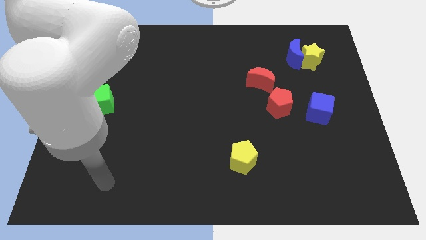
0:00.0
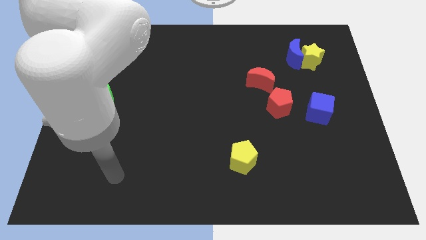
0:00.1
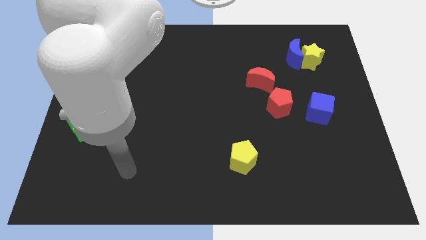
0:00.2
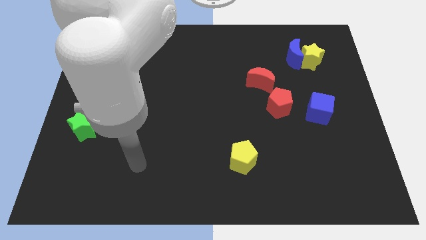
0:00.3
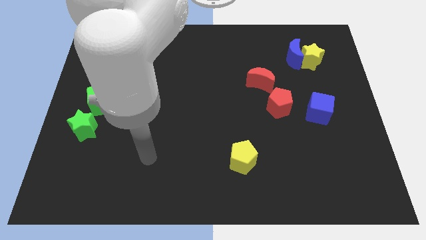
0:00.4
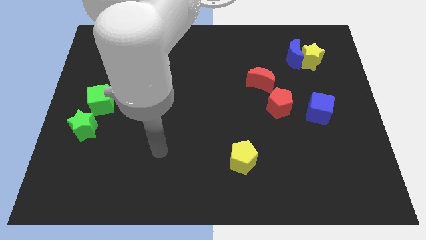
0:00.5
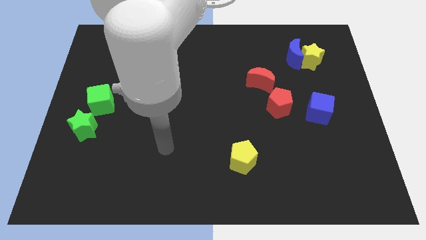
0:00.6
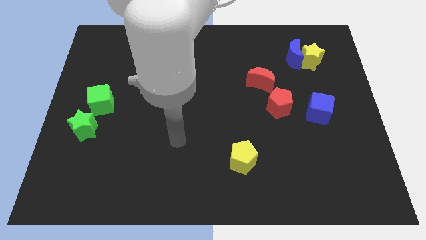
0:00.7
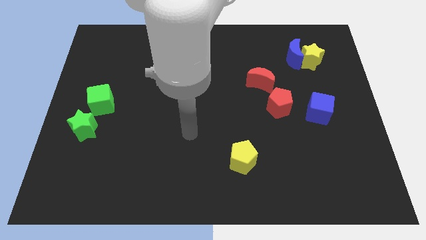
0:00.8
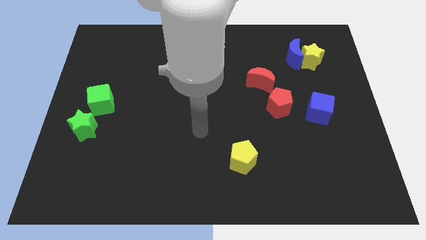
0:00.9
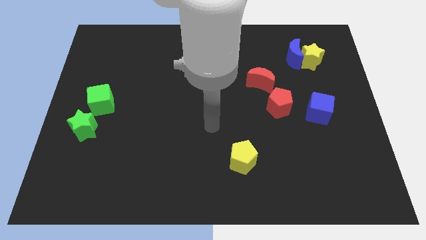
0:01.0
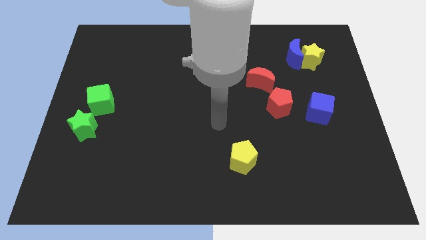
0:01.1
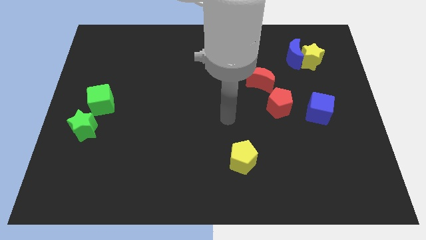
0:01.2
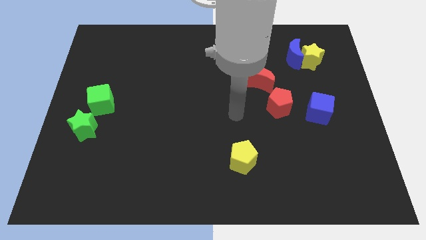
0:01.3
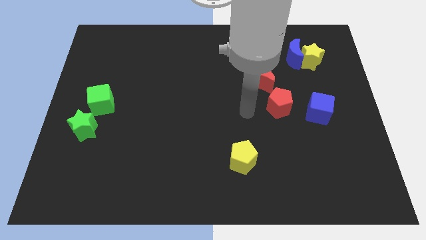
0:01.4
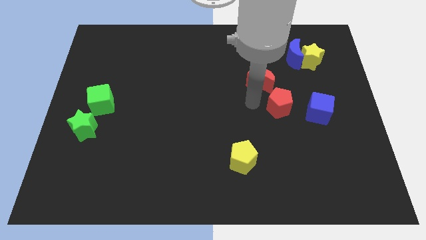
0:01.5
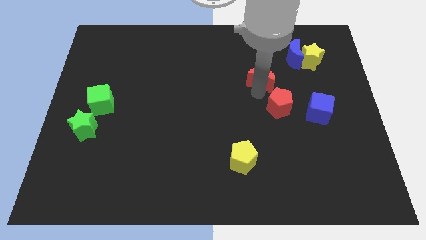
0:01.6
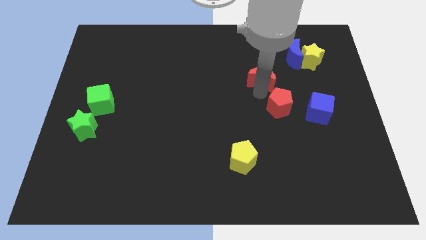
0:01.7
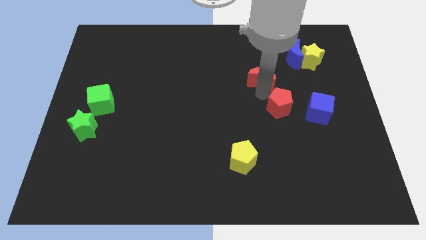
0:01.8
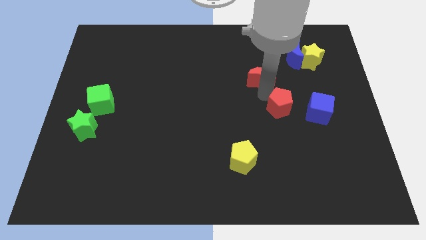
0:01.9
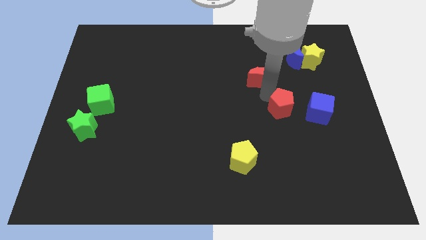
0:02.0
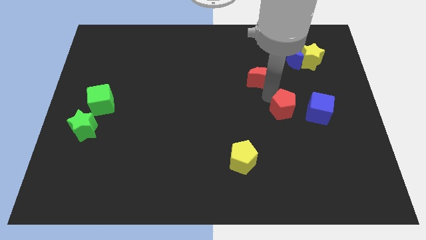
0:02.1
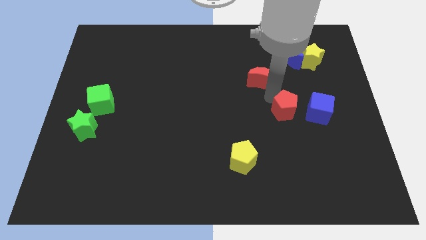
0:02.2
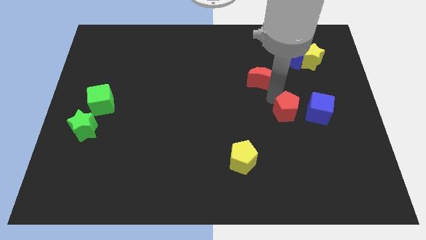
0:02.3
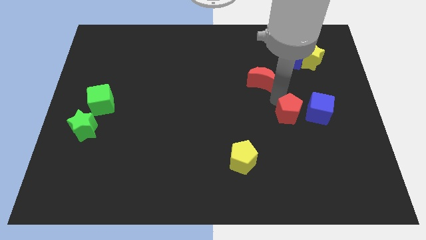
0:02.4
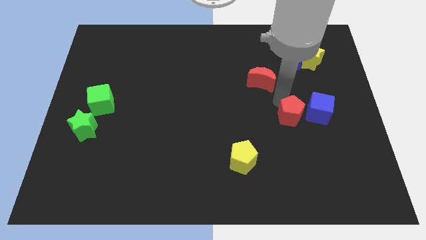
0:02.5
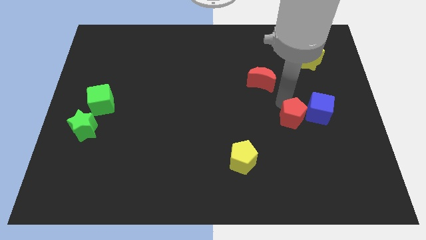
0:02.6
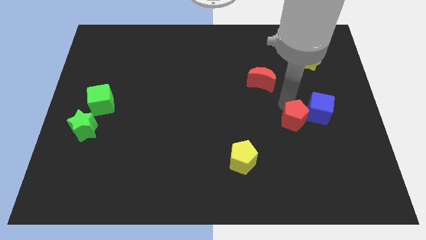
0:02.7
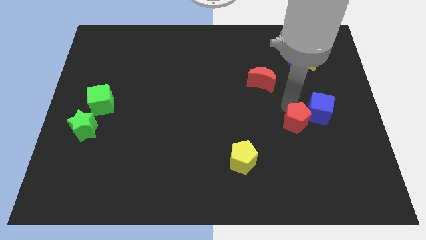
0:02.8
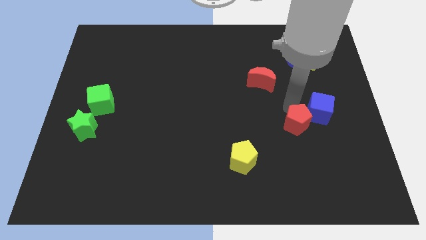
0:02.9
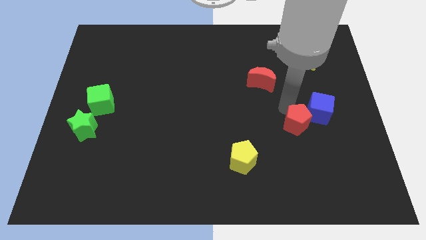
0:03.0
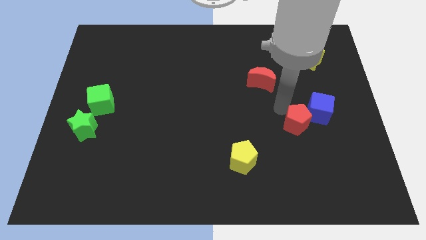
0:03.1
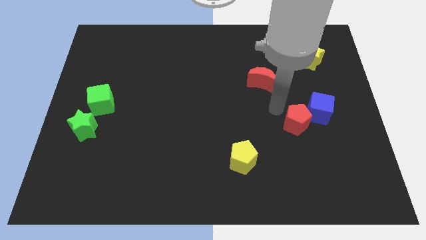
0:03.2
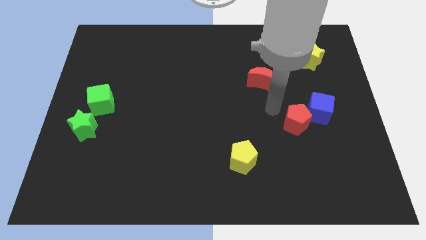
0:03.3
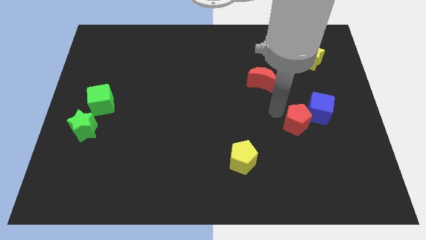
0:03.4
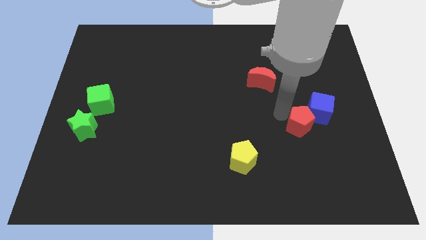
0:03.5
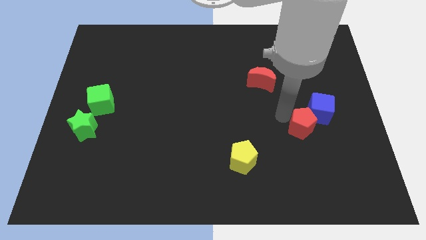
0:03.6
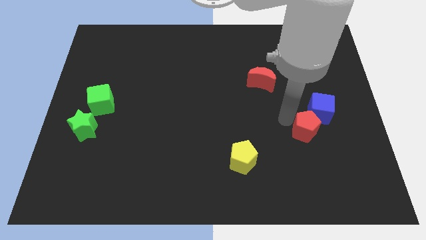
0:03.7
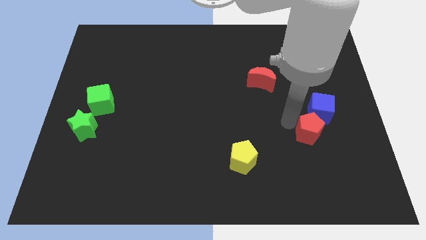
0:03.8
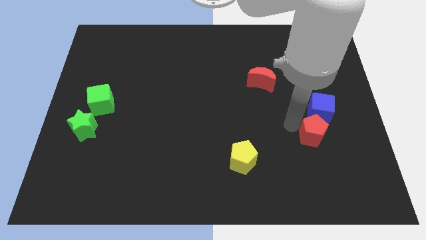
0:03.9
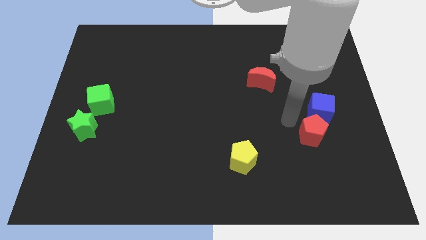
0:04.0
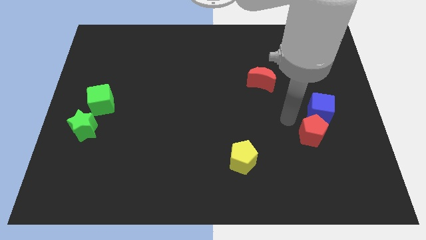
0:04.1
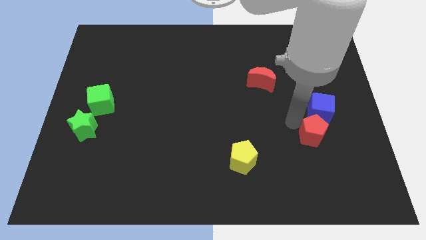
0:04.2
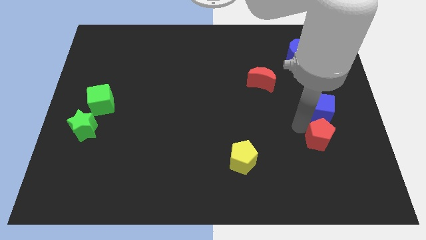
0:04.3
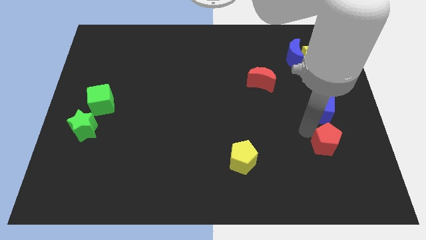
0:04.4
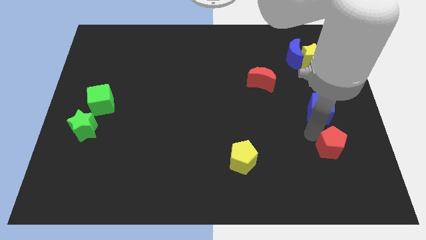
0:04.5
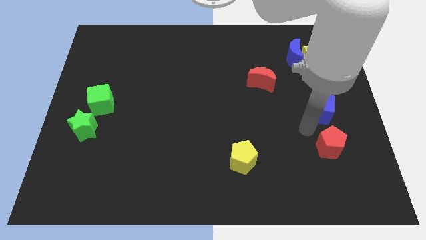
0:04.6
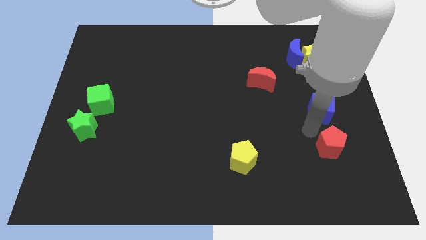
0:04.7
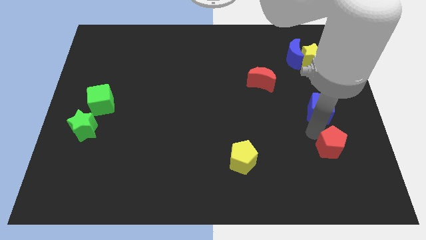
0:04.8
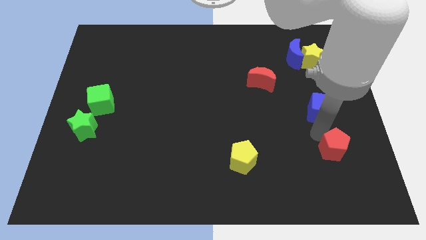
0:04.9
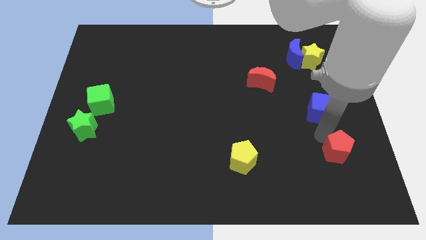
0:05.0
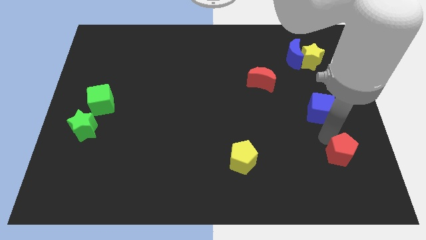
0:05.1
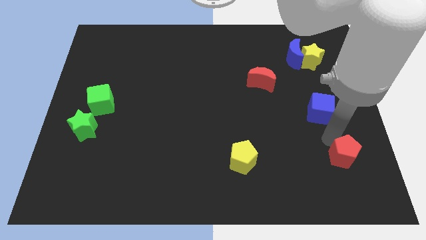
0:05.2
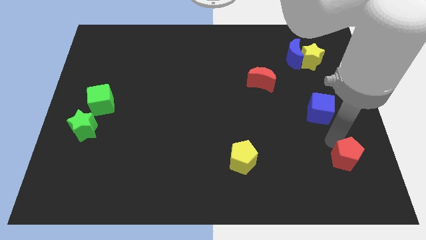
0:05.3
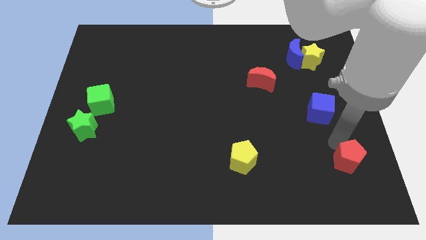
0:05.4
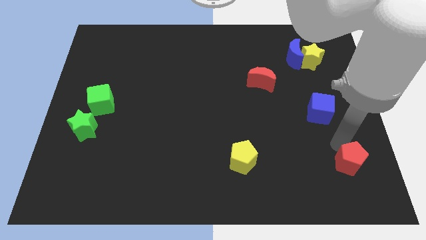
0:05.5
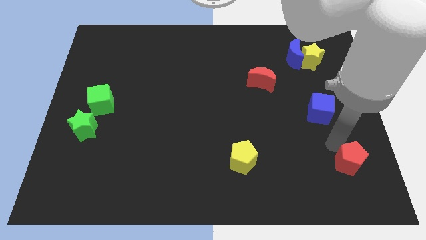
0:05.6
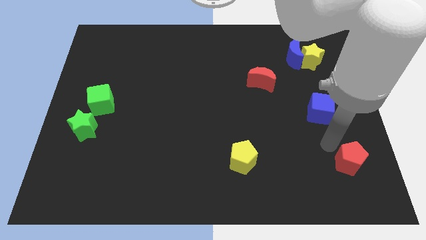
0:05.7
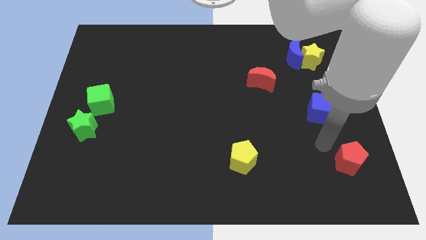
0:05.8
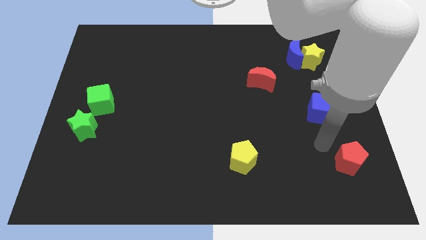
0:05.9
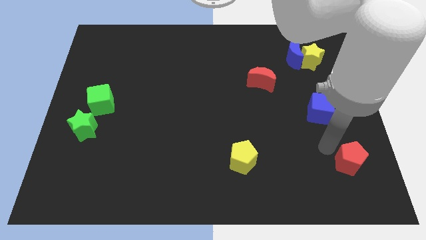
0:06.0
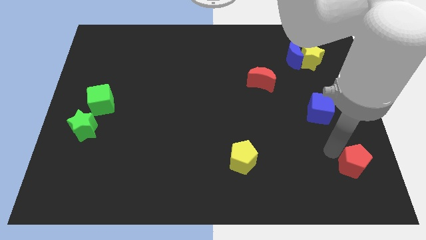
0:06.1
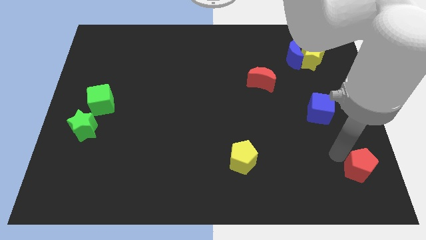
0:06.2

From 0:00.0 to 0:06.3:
push the red pentagon to the lower right corner

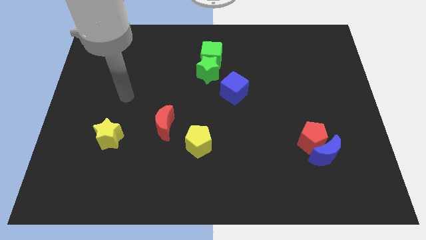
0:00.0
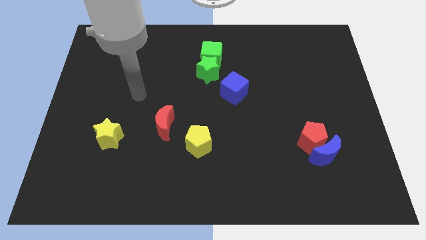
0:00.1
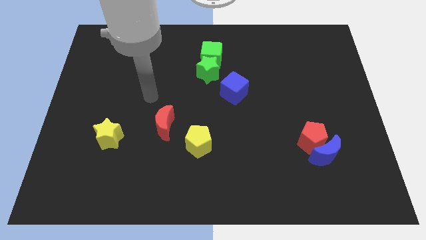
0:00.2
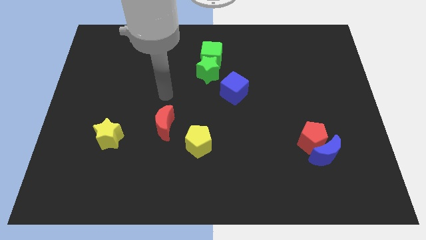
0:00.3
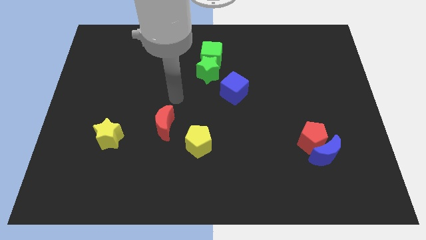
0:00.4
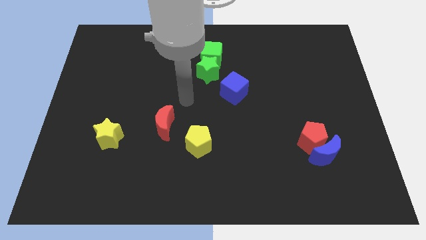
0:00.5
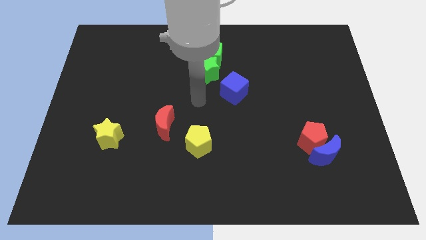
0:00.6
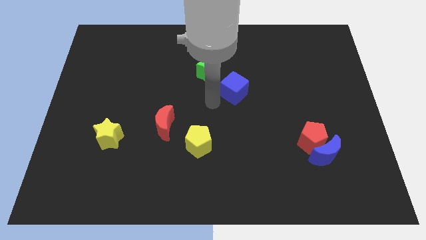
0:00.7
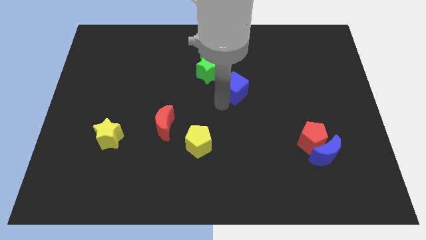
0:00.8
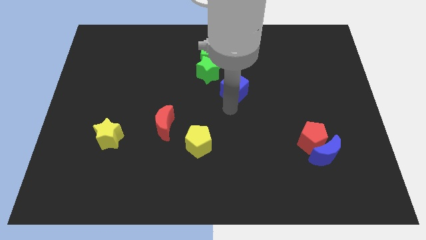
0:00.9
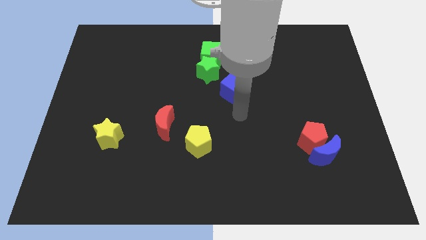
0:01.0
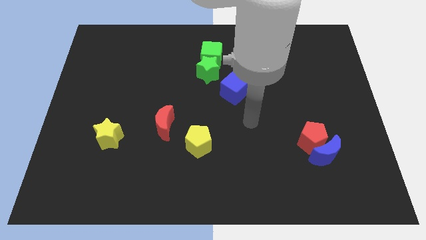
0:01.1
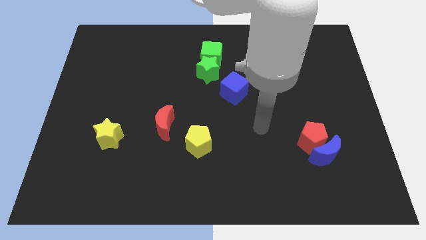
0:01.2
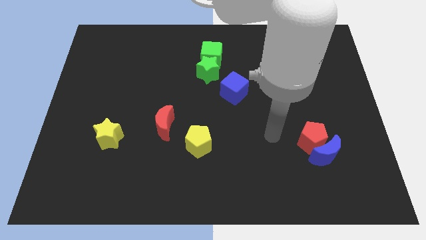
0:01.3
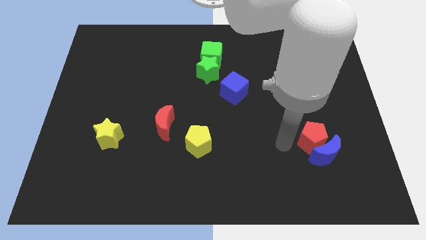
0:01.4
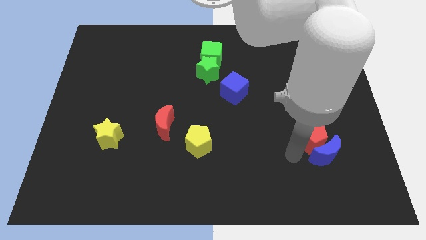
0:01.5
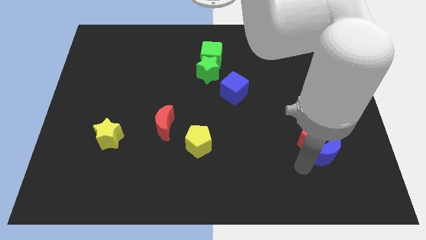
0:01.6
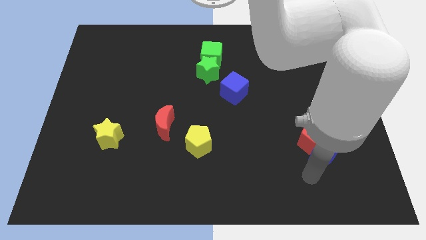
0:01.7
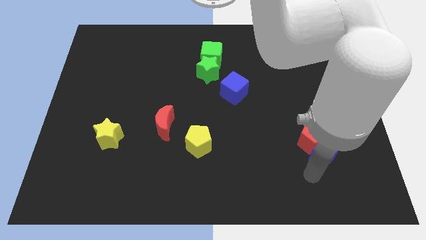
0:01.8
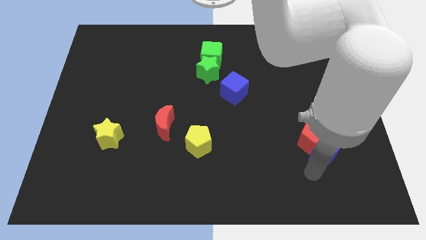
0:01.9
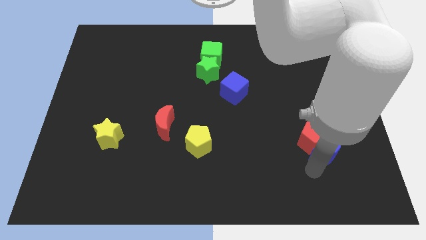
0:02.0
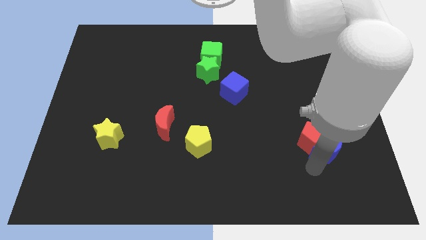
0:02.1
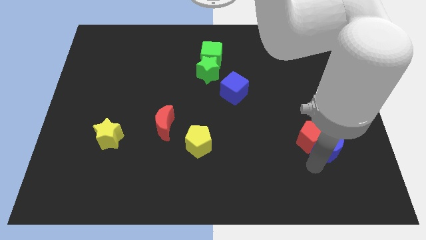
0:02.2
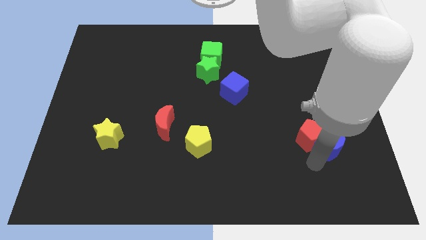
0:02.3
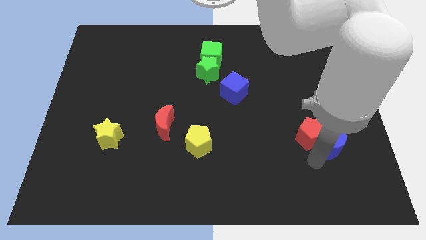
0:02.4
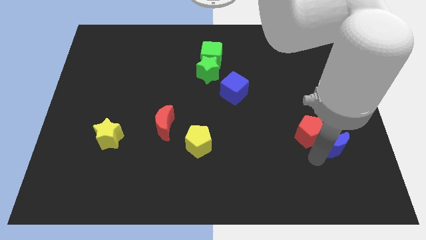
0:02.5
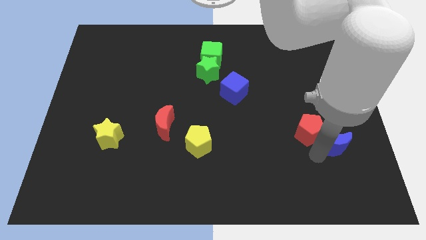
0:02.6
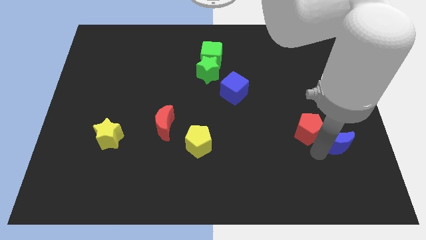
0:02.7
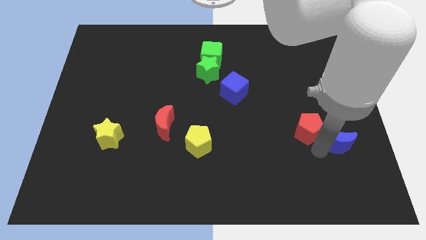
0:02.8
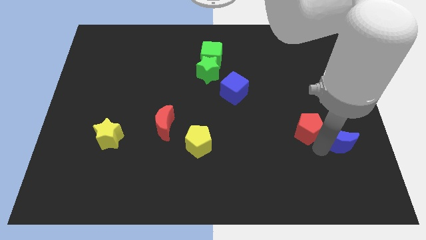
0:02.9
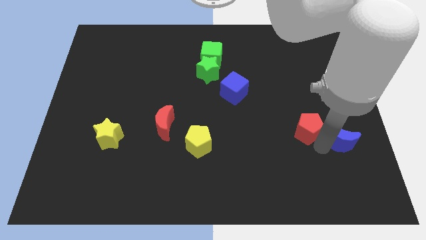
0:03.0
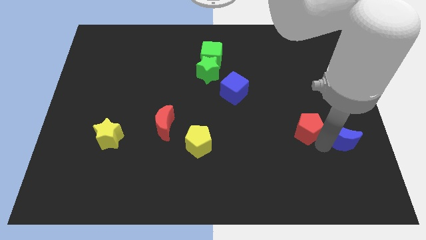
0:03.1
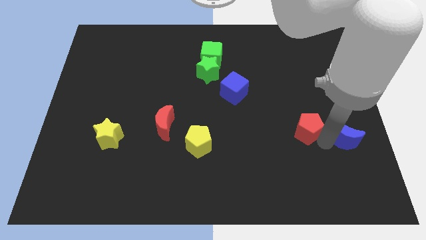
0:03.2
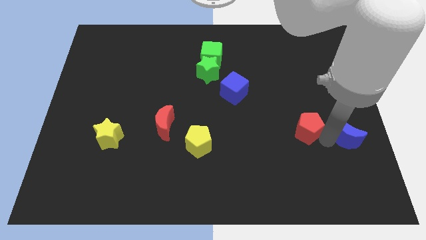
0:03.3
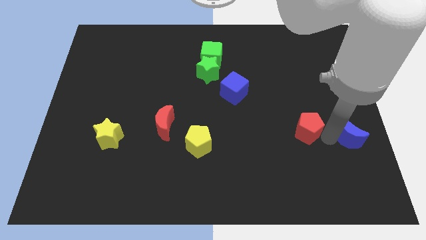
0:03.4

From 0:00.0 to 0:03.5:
push the blue moon to the right side
